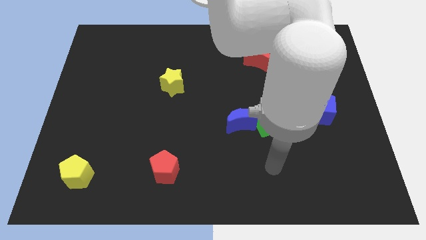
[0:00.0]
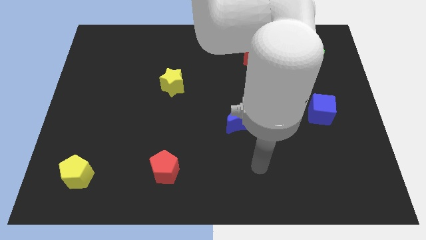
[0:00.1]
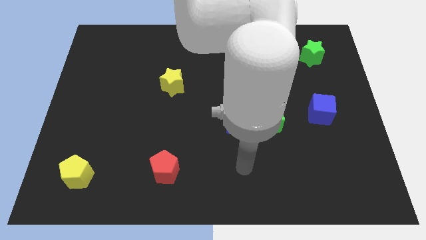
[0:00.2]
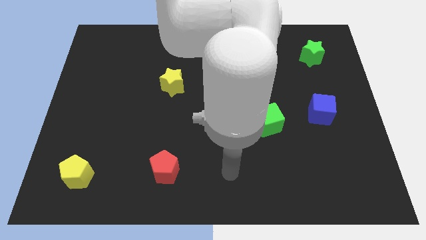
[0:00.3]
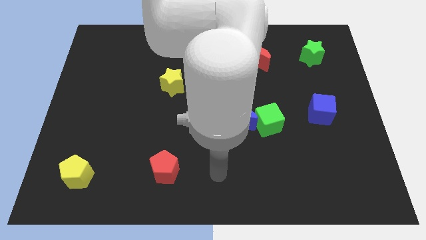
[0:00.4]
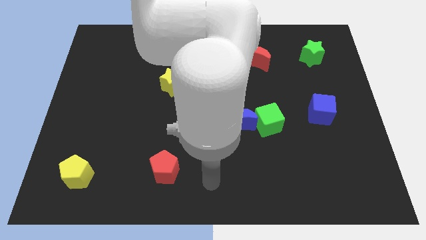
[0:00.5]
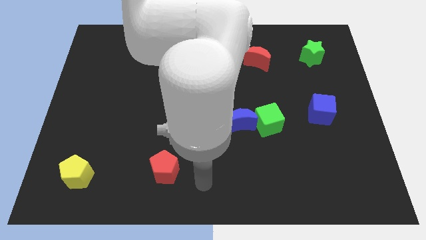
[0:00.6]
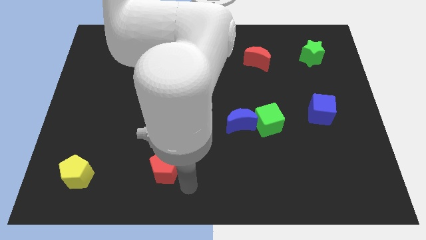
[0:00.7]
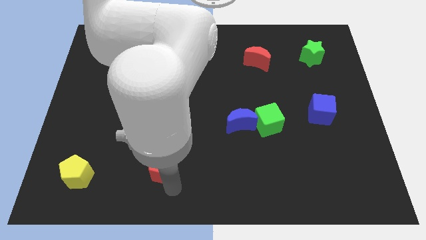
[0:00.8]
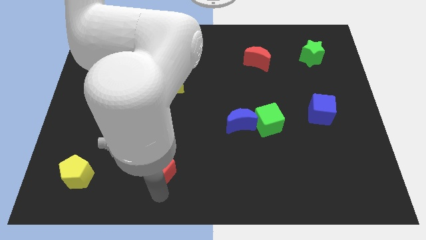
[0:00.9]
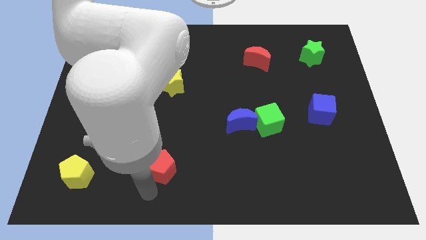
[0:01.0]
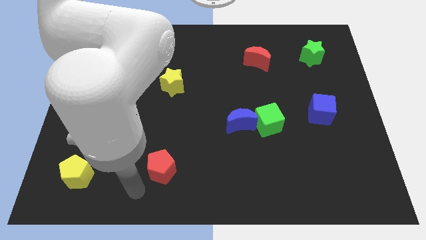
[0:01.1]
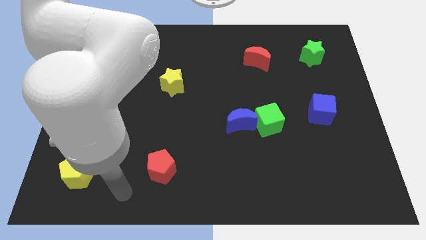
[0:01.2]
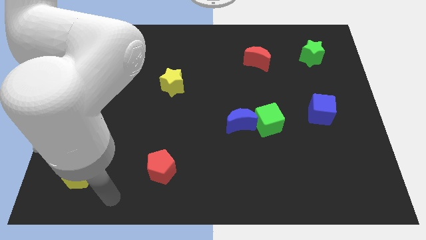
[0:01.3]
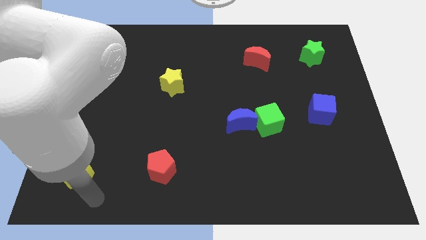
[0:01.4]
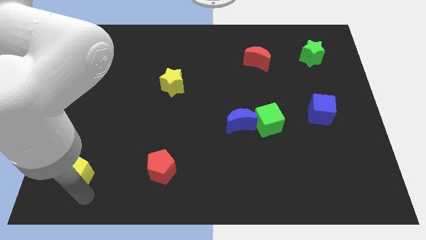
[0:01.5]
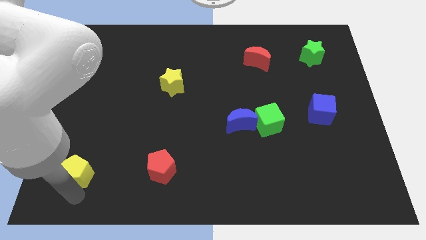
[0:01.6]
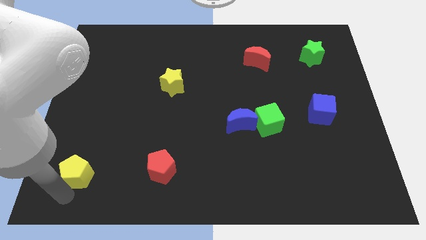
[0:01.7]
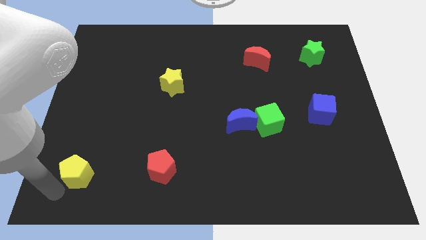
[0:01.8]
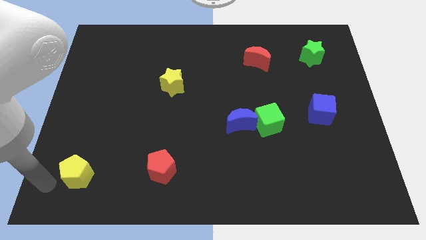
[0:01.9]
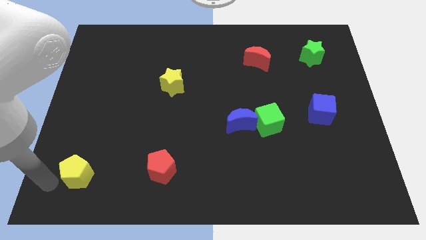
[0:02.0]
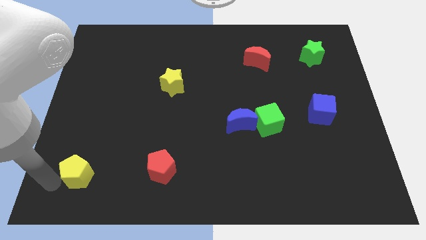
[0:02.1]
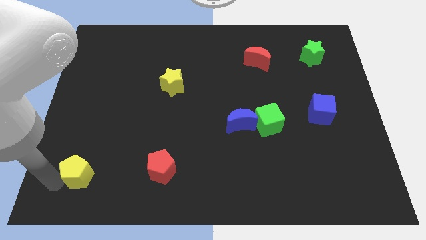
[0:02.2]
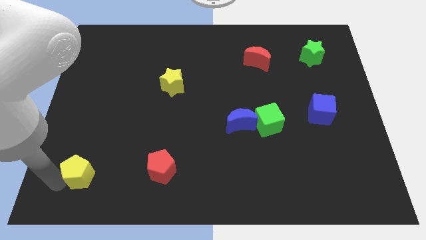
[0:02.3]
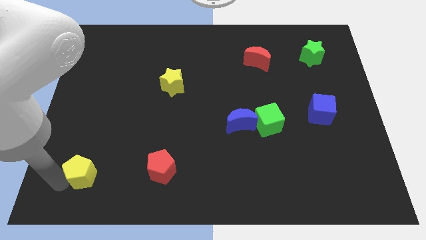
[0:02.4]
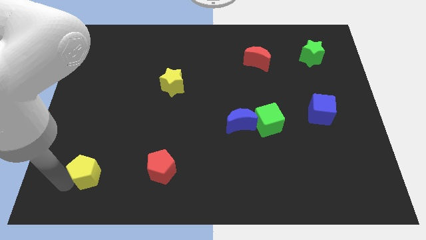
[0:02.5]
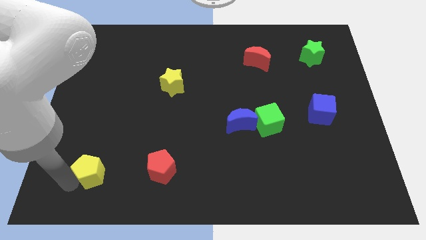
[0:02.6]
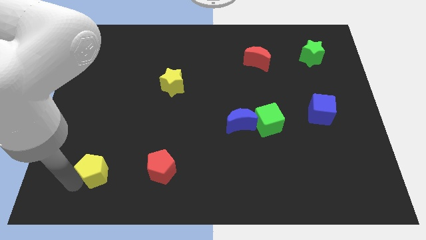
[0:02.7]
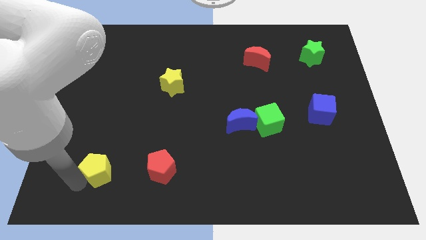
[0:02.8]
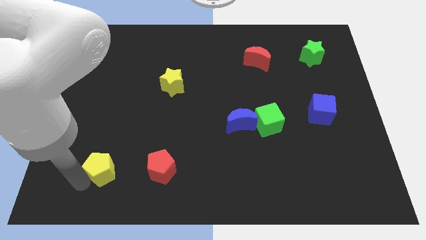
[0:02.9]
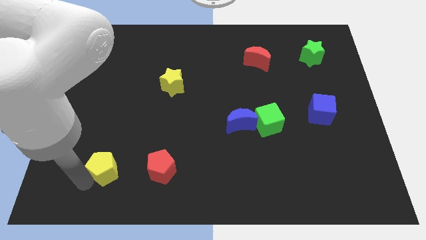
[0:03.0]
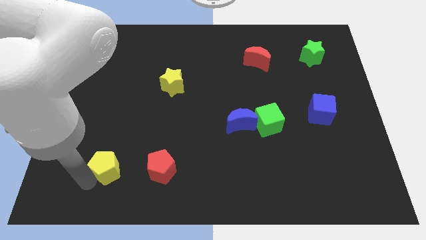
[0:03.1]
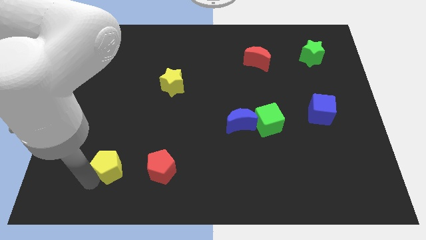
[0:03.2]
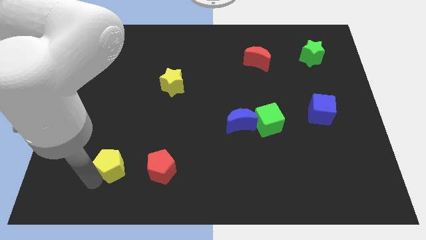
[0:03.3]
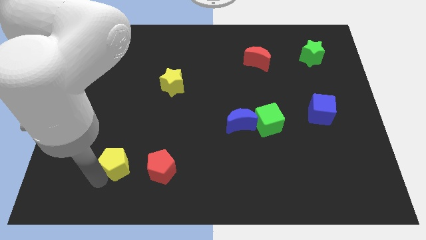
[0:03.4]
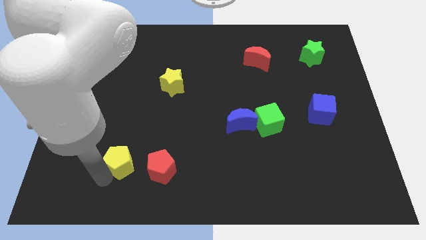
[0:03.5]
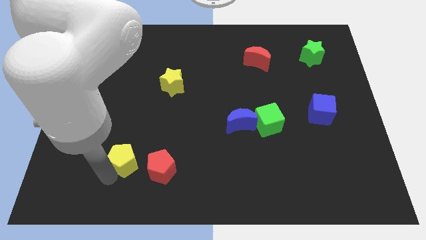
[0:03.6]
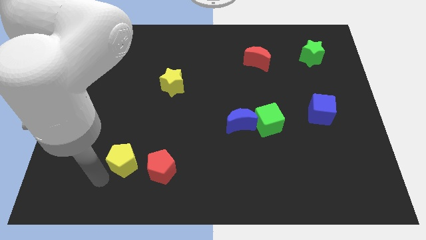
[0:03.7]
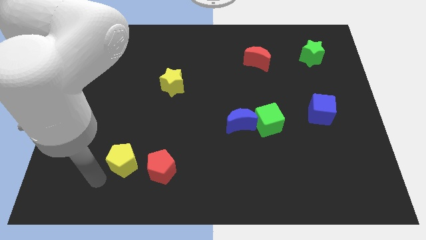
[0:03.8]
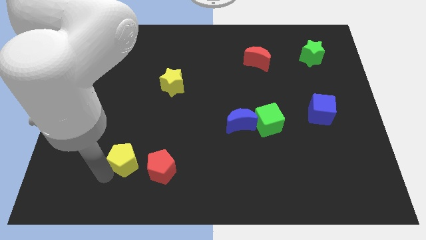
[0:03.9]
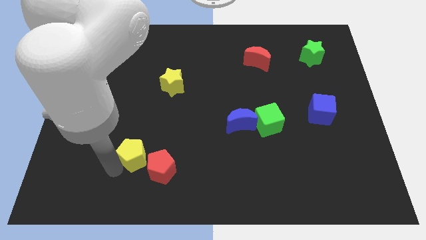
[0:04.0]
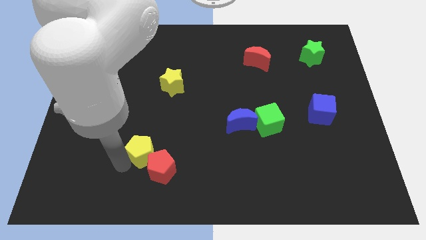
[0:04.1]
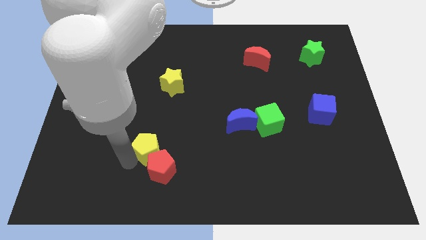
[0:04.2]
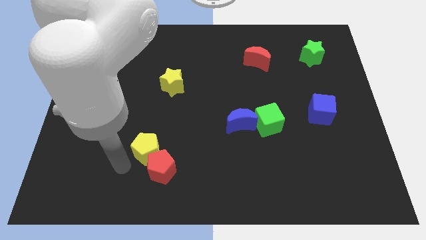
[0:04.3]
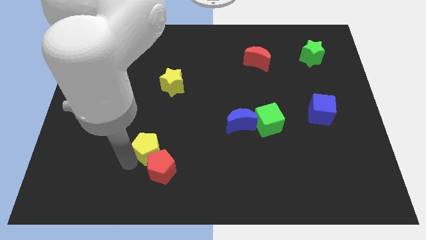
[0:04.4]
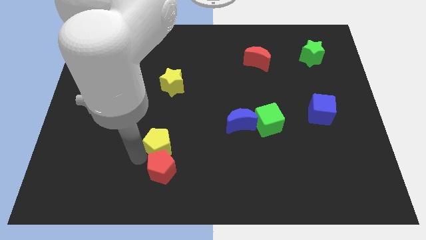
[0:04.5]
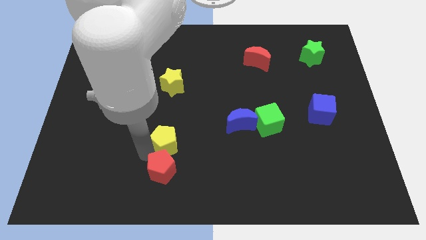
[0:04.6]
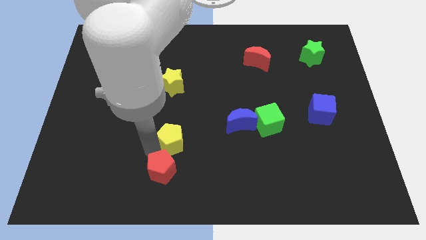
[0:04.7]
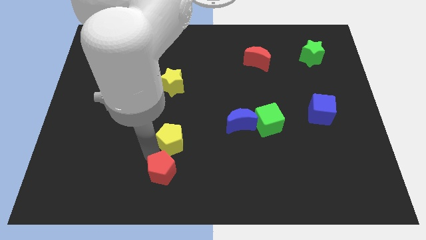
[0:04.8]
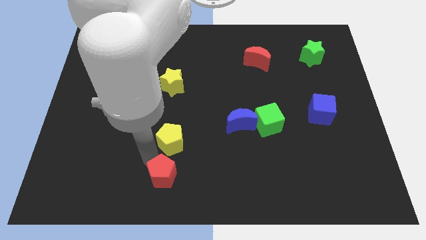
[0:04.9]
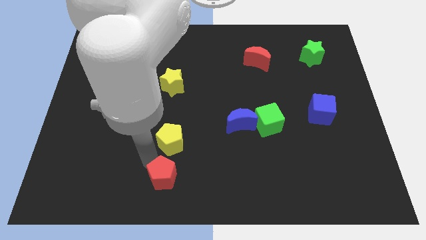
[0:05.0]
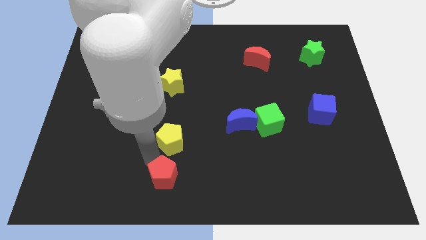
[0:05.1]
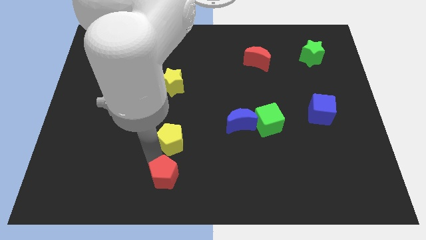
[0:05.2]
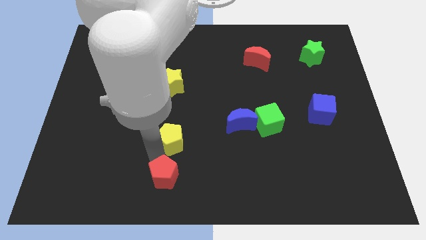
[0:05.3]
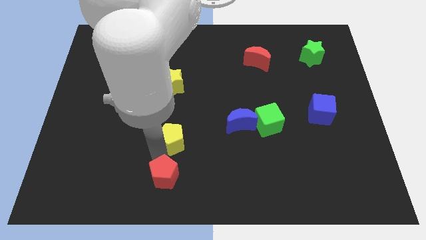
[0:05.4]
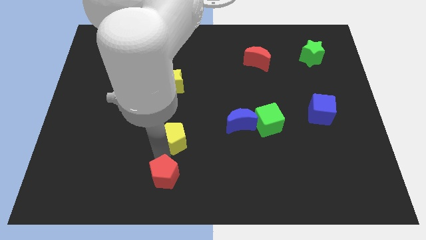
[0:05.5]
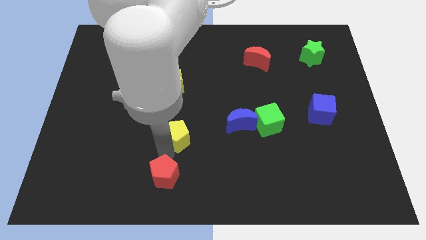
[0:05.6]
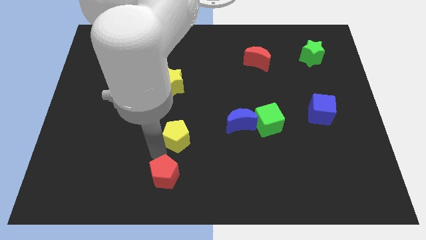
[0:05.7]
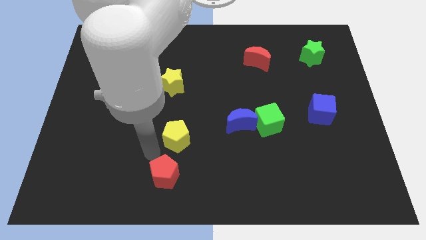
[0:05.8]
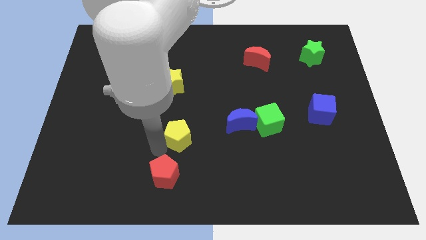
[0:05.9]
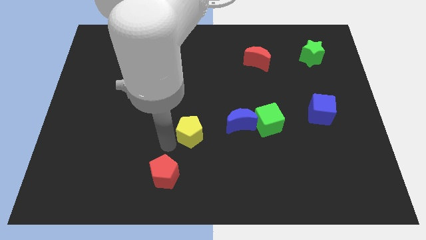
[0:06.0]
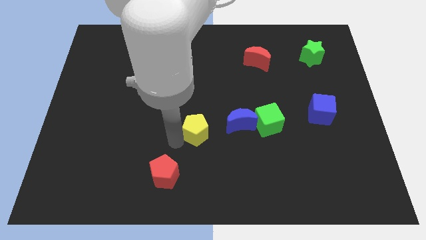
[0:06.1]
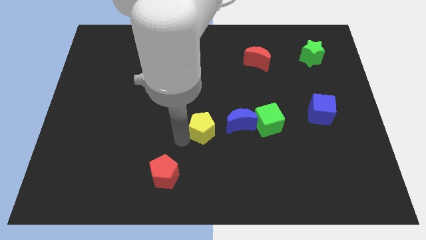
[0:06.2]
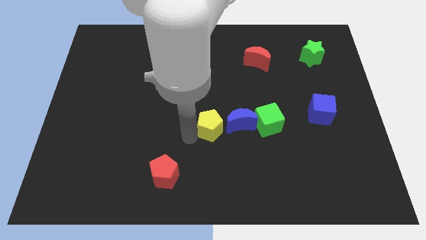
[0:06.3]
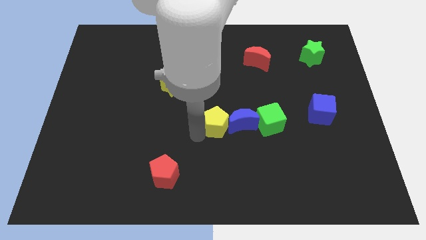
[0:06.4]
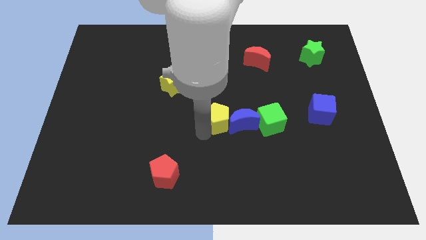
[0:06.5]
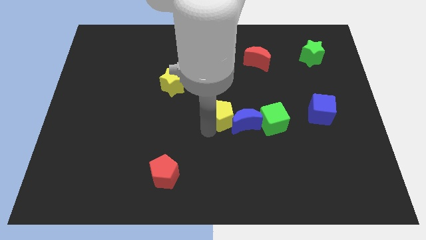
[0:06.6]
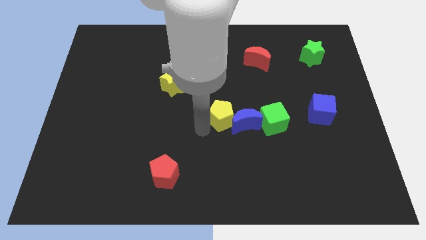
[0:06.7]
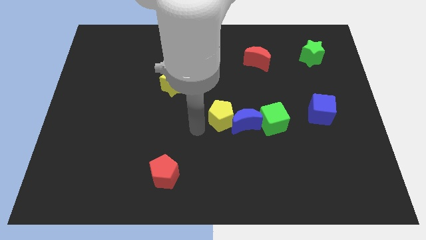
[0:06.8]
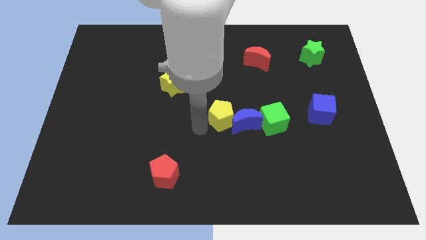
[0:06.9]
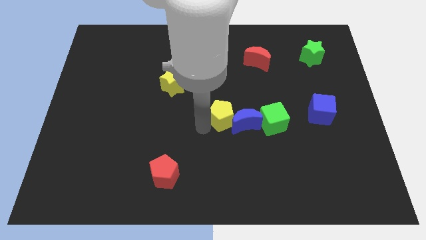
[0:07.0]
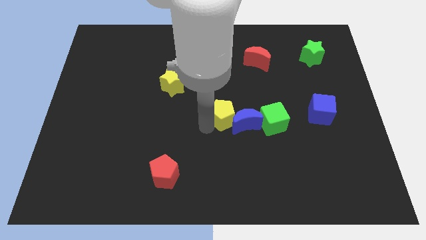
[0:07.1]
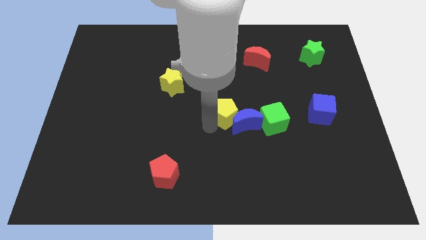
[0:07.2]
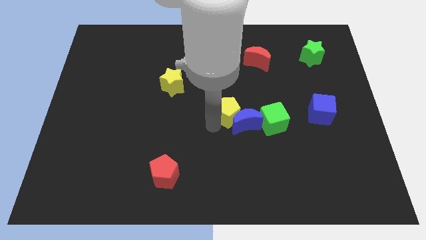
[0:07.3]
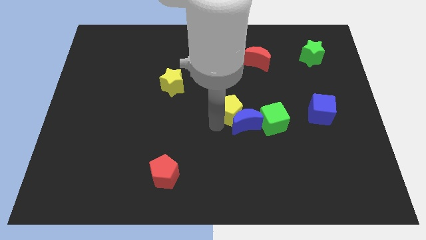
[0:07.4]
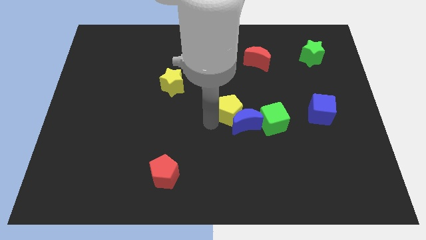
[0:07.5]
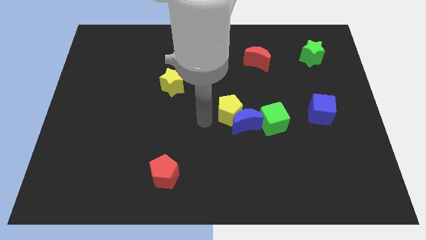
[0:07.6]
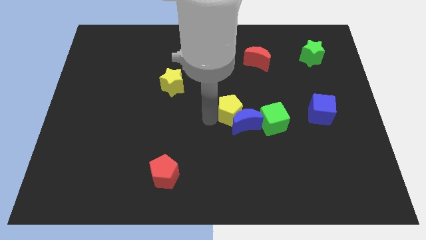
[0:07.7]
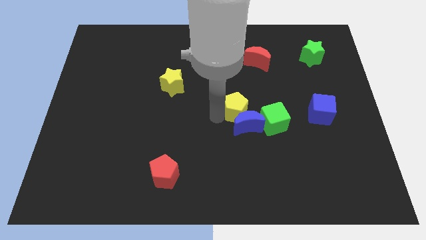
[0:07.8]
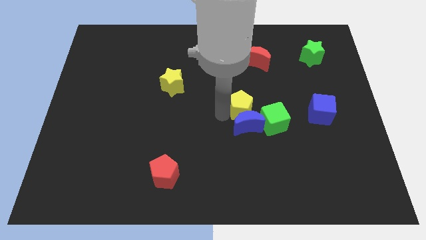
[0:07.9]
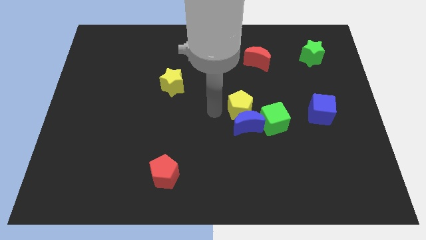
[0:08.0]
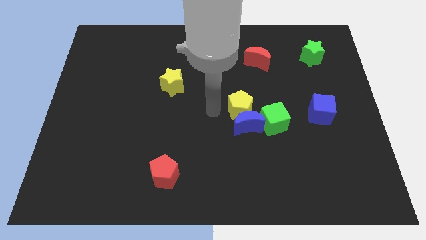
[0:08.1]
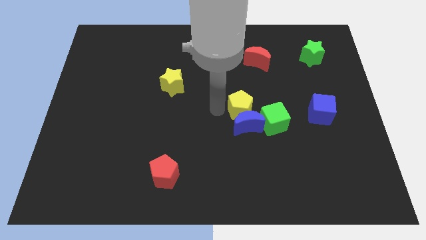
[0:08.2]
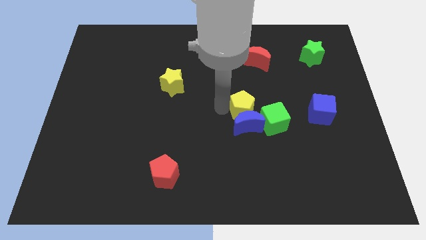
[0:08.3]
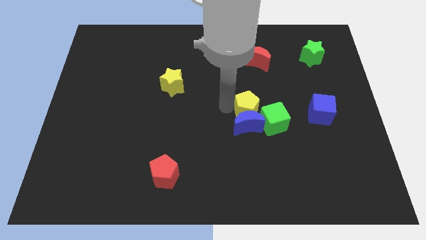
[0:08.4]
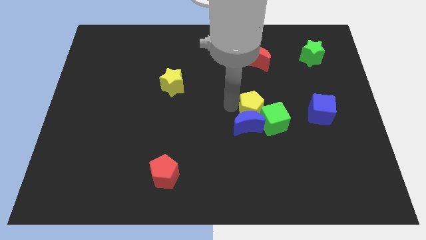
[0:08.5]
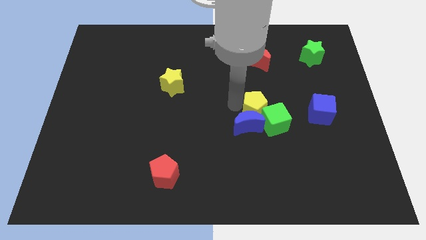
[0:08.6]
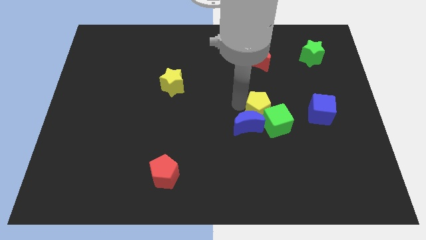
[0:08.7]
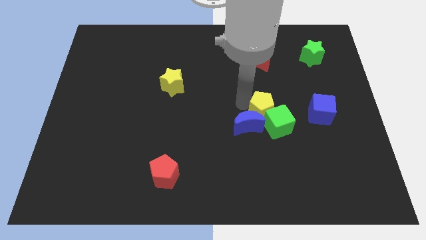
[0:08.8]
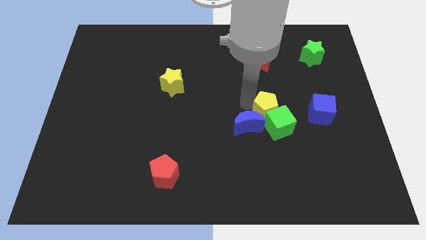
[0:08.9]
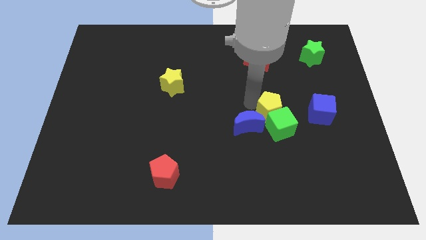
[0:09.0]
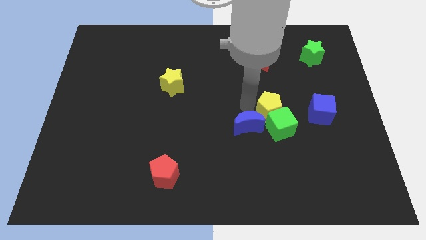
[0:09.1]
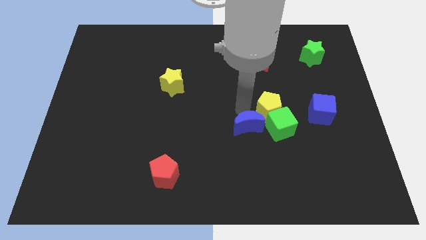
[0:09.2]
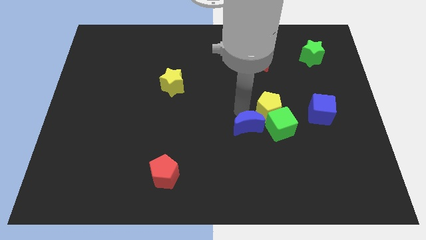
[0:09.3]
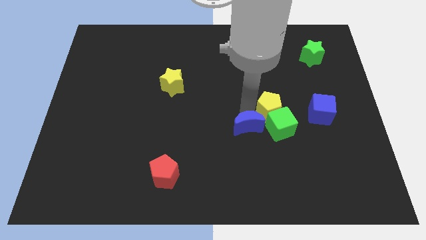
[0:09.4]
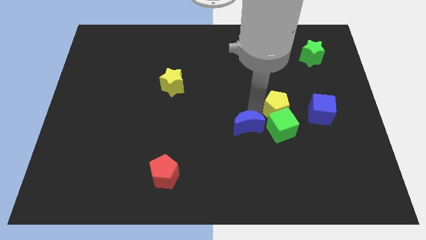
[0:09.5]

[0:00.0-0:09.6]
slide the yellow pentagon to the top right of the green cube
